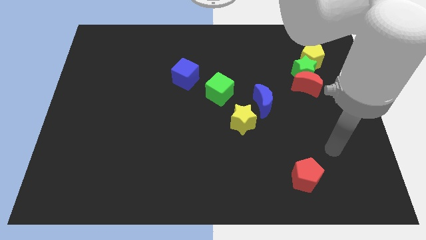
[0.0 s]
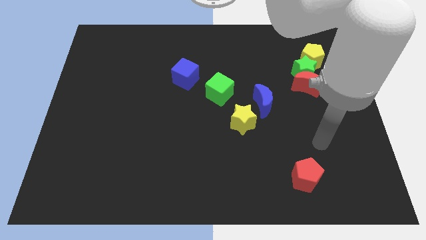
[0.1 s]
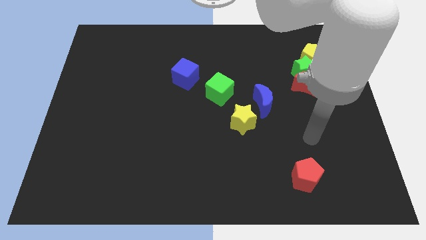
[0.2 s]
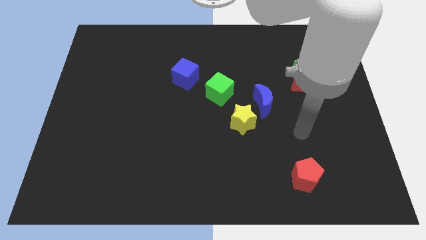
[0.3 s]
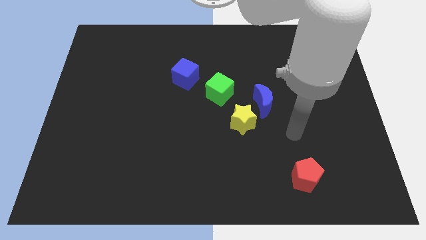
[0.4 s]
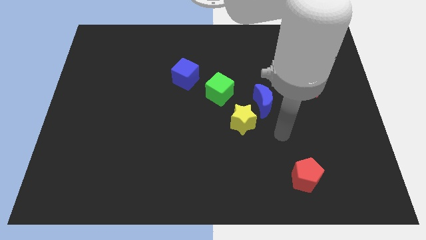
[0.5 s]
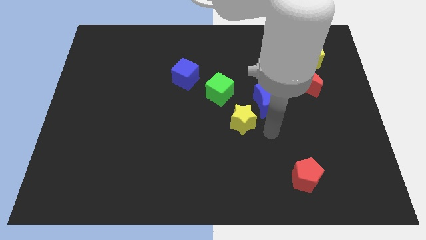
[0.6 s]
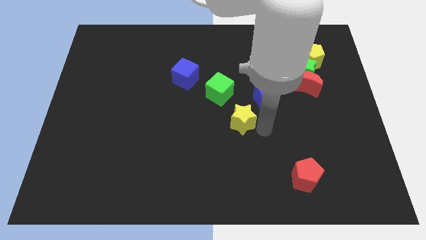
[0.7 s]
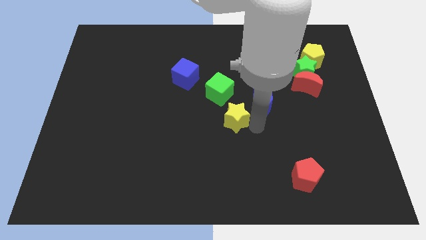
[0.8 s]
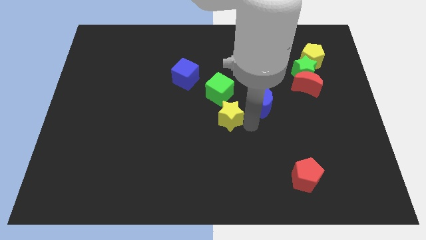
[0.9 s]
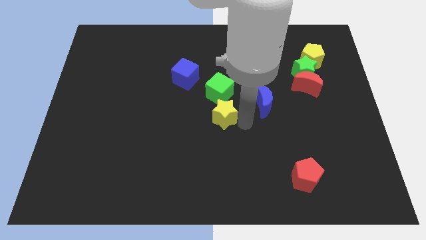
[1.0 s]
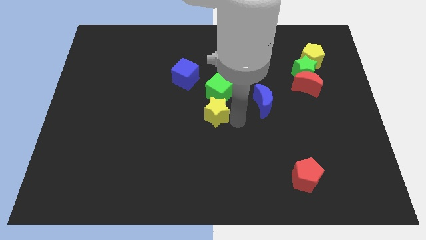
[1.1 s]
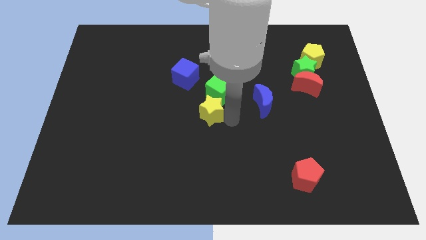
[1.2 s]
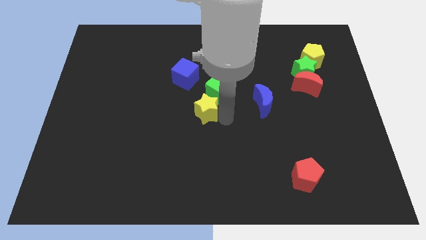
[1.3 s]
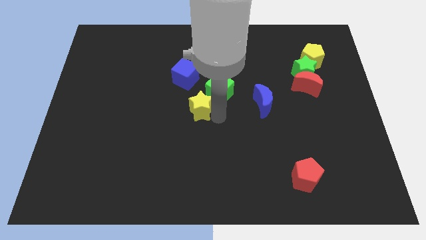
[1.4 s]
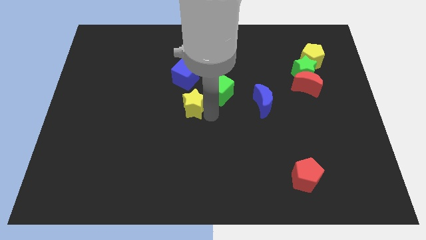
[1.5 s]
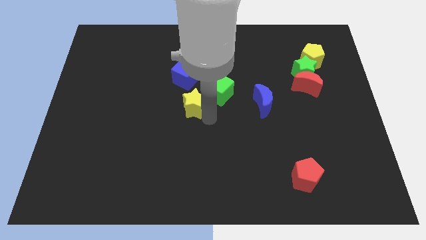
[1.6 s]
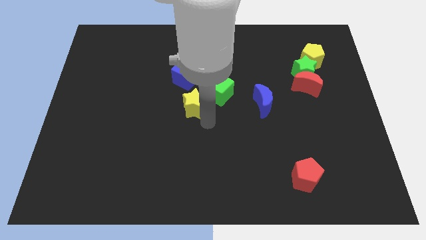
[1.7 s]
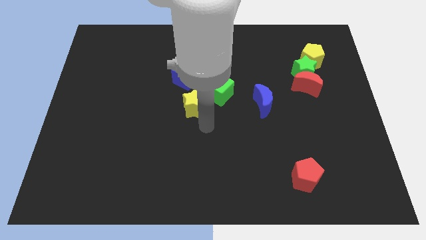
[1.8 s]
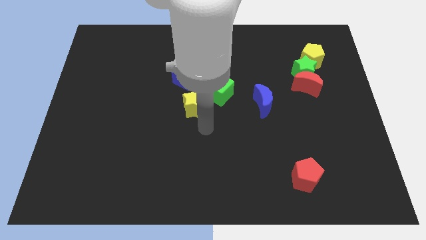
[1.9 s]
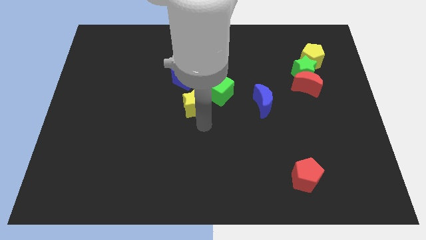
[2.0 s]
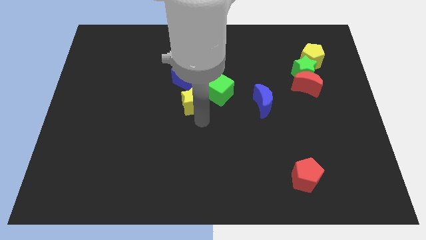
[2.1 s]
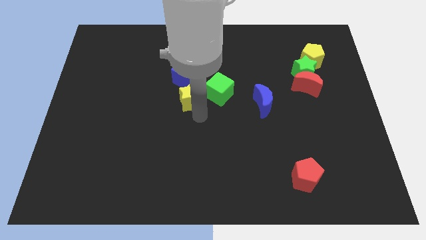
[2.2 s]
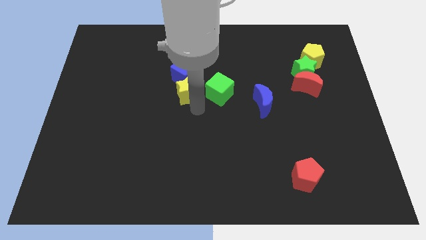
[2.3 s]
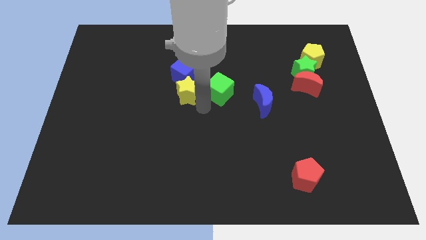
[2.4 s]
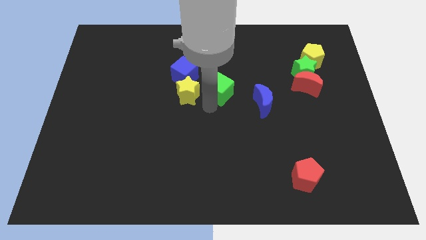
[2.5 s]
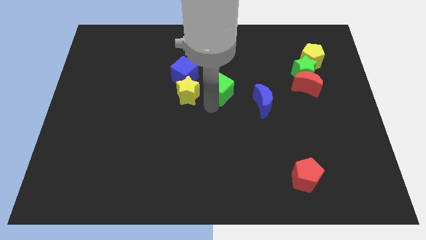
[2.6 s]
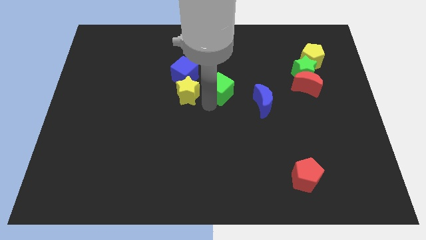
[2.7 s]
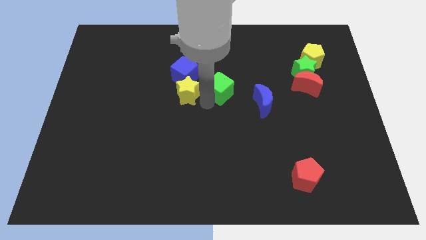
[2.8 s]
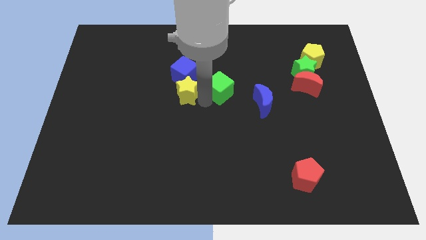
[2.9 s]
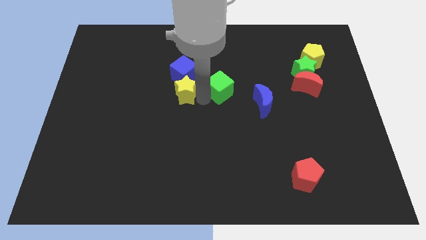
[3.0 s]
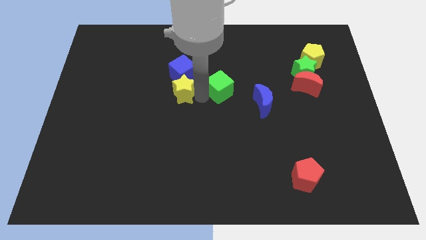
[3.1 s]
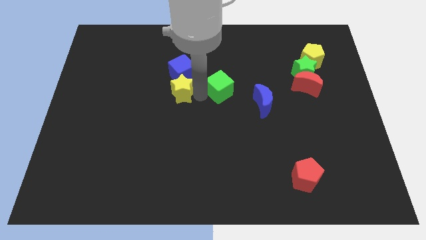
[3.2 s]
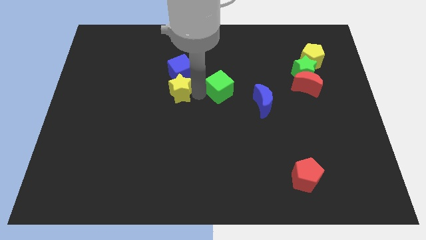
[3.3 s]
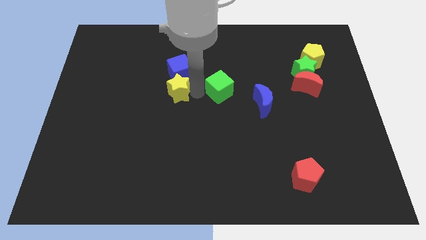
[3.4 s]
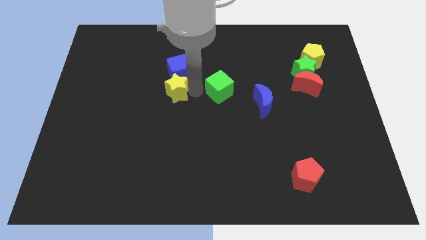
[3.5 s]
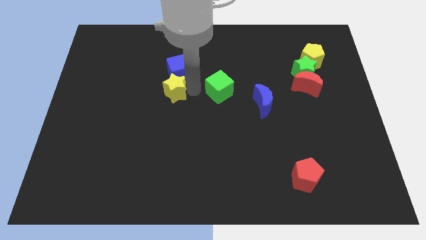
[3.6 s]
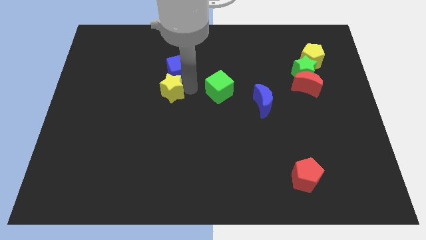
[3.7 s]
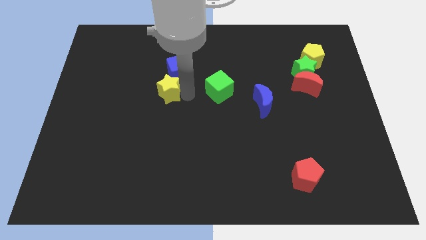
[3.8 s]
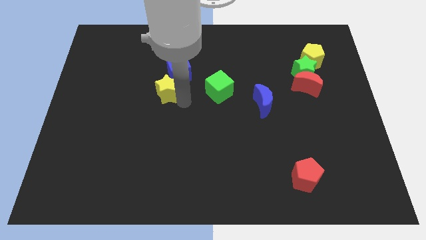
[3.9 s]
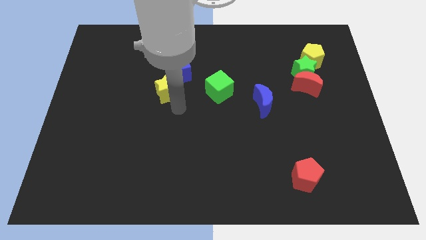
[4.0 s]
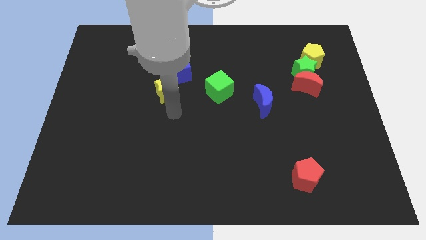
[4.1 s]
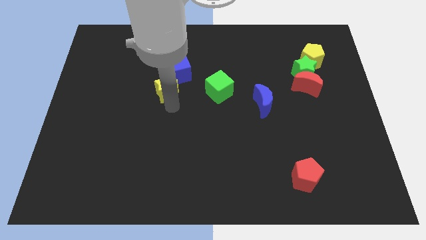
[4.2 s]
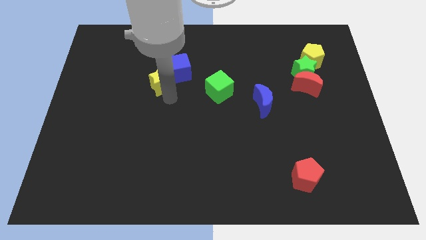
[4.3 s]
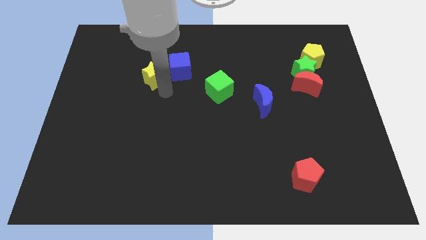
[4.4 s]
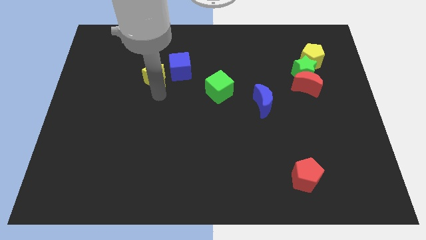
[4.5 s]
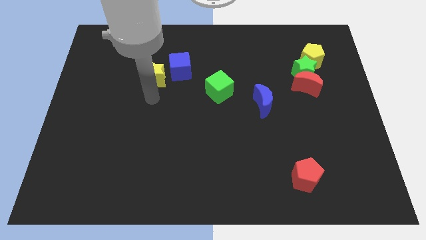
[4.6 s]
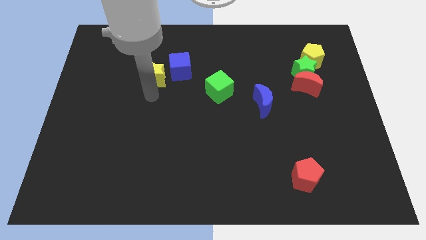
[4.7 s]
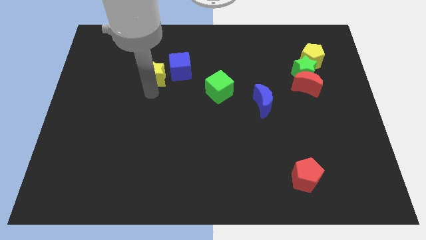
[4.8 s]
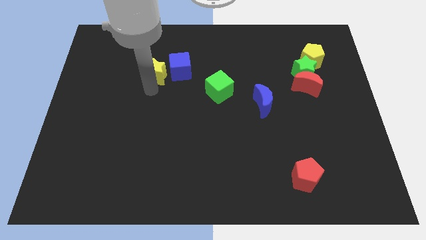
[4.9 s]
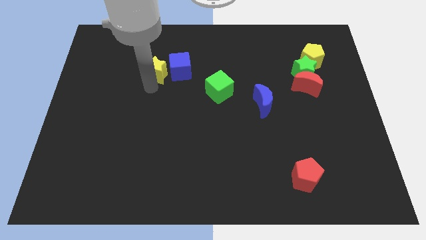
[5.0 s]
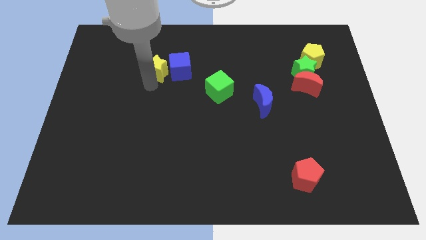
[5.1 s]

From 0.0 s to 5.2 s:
move the yellow star to the top left side of the blue cube

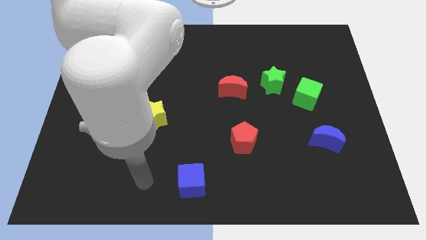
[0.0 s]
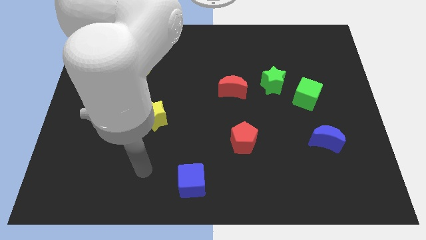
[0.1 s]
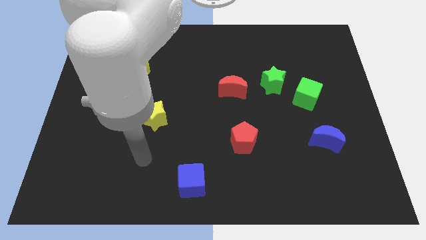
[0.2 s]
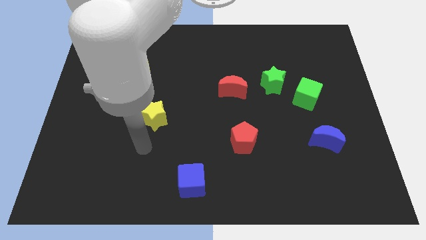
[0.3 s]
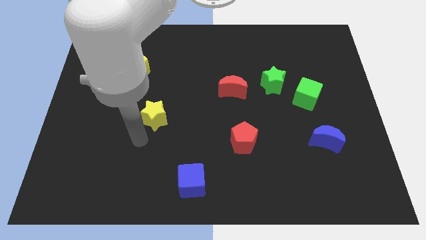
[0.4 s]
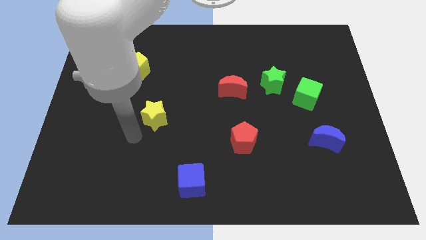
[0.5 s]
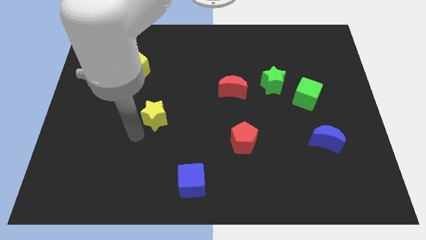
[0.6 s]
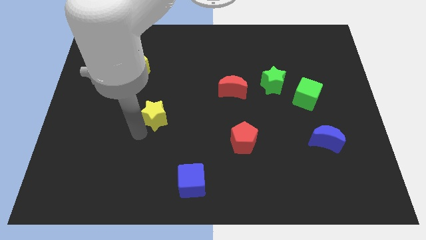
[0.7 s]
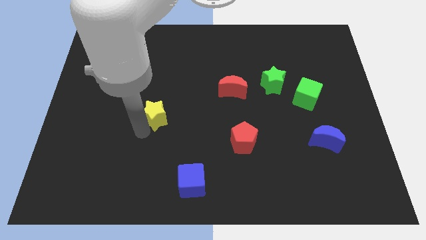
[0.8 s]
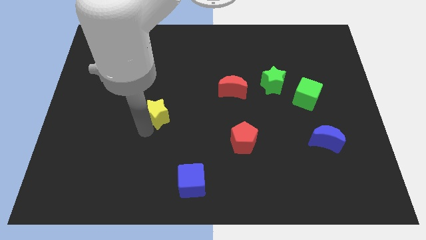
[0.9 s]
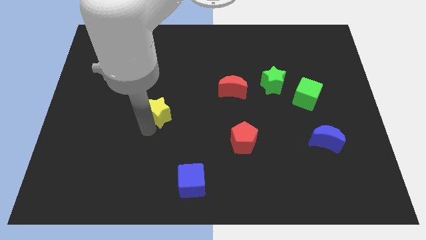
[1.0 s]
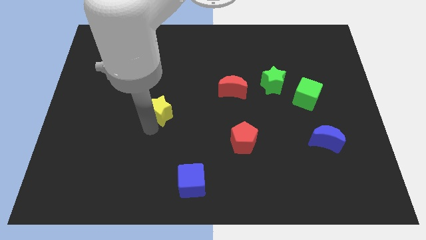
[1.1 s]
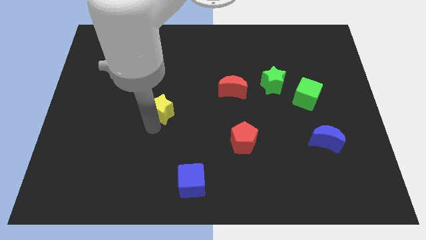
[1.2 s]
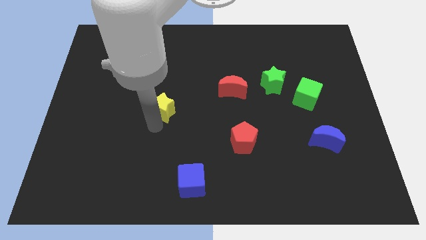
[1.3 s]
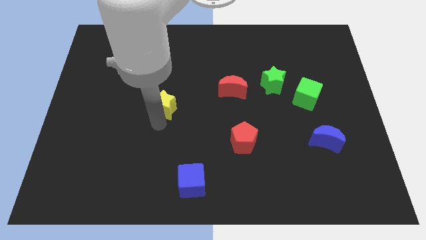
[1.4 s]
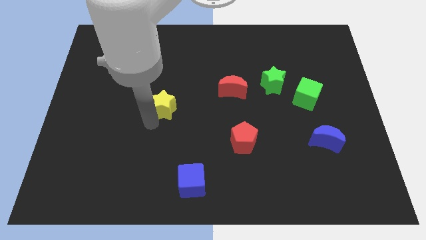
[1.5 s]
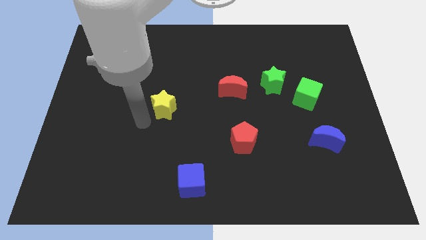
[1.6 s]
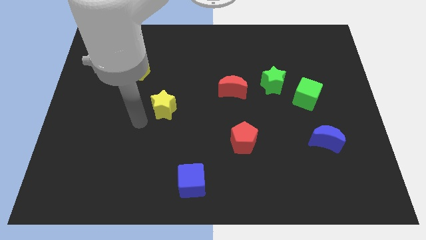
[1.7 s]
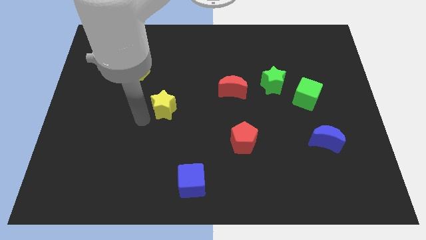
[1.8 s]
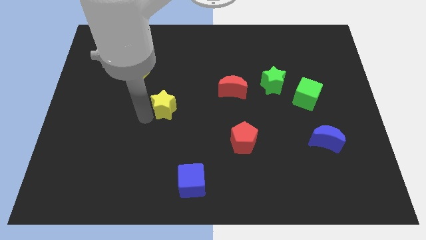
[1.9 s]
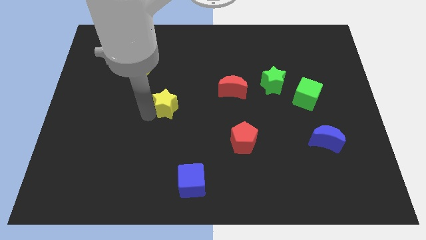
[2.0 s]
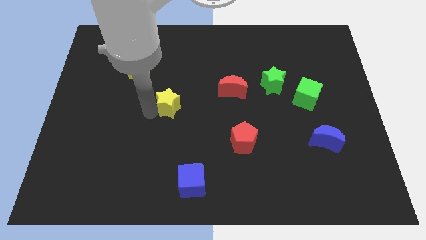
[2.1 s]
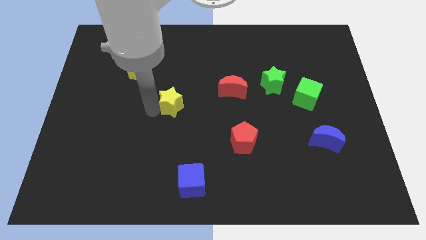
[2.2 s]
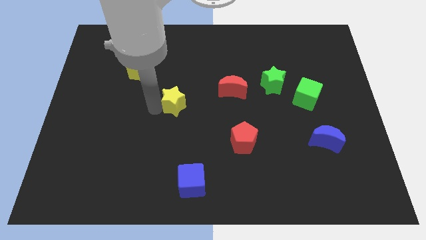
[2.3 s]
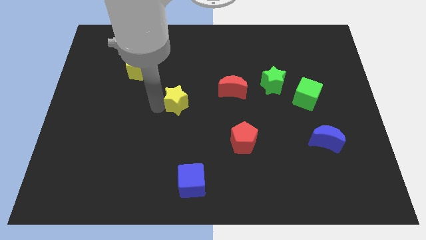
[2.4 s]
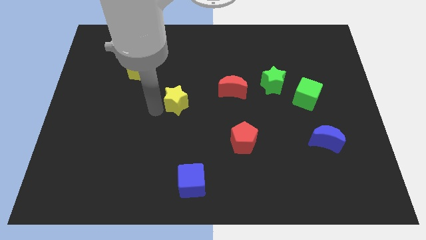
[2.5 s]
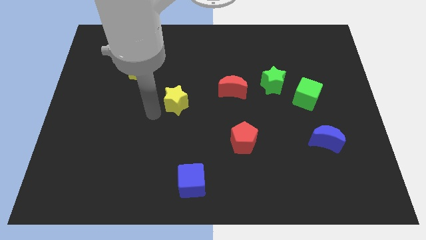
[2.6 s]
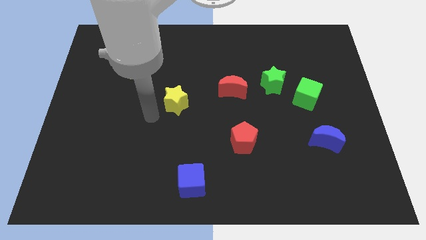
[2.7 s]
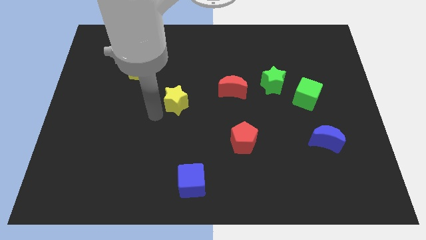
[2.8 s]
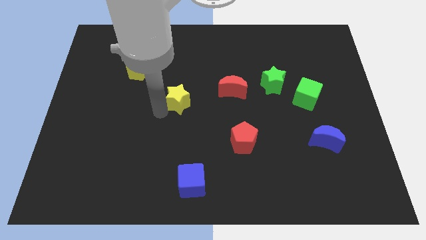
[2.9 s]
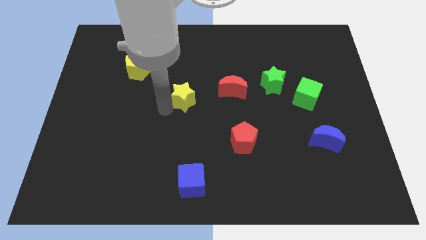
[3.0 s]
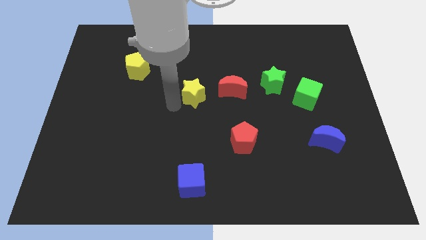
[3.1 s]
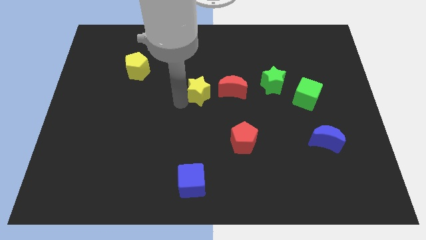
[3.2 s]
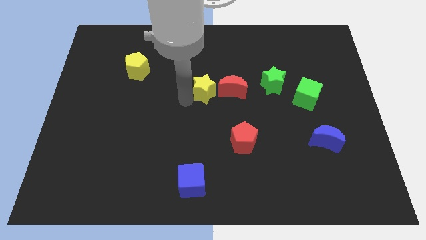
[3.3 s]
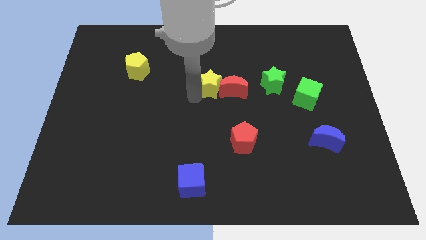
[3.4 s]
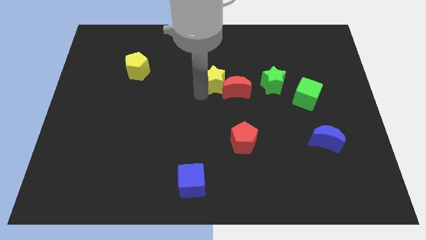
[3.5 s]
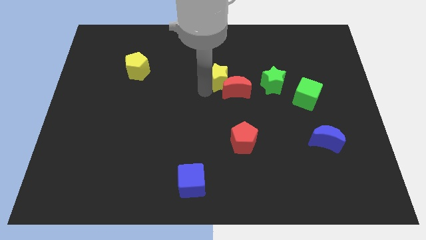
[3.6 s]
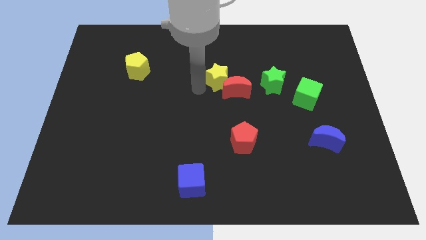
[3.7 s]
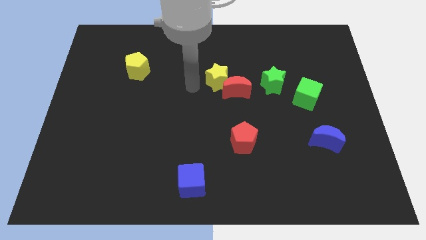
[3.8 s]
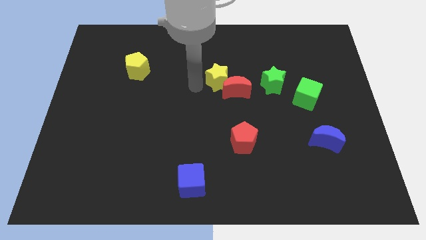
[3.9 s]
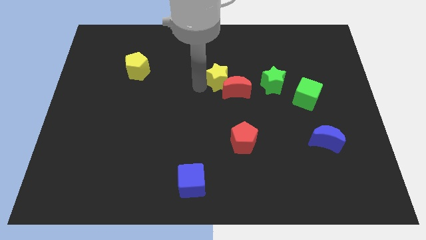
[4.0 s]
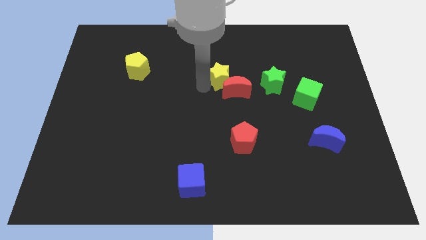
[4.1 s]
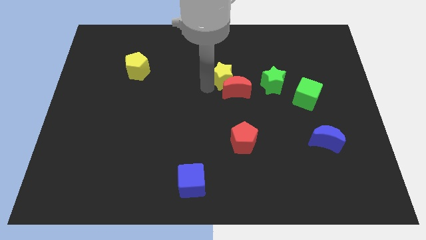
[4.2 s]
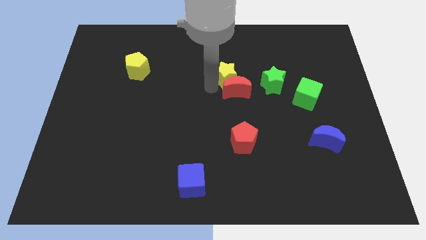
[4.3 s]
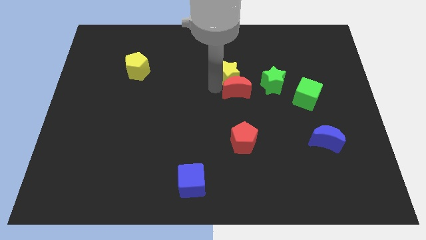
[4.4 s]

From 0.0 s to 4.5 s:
put the yellow star to the top right of the red moon
